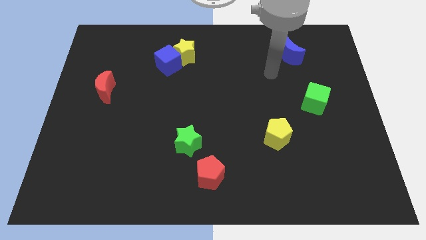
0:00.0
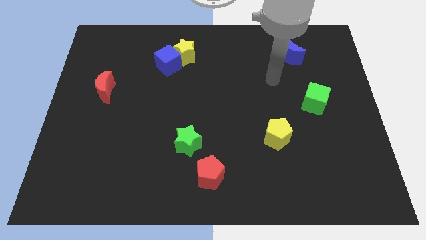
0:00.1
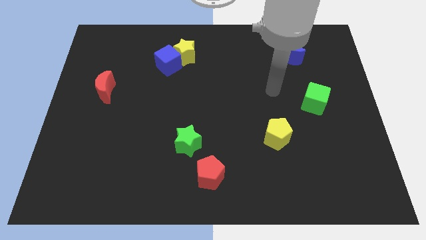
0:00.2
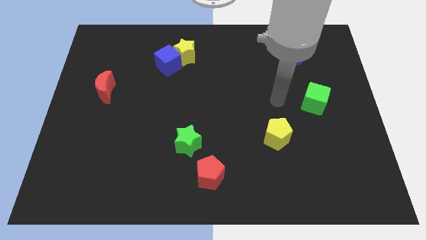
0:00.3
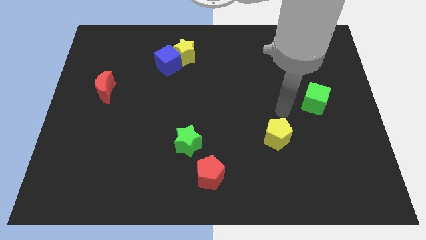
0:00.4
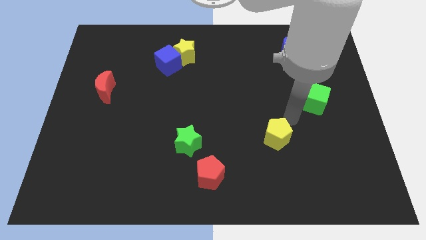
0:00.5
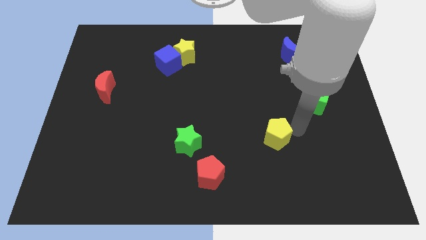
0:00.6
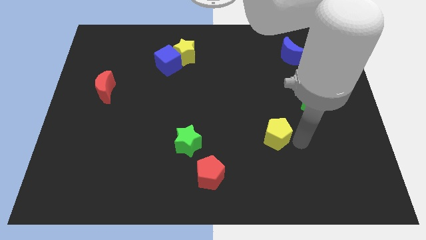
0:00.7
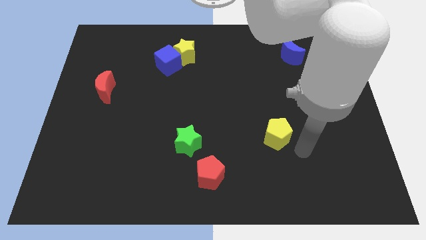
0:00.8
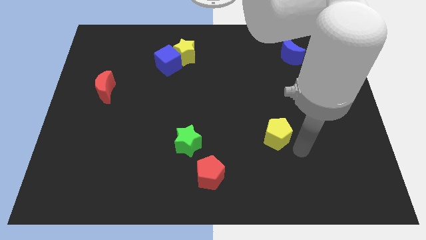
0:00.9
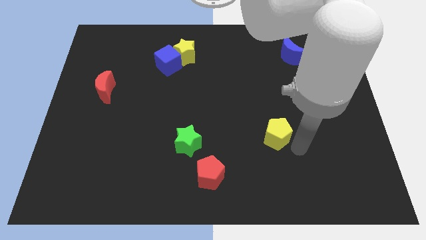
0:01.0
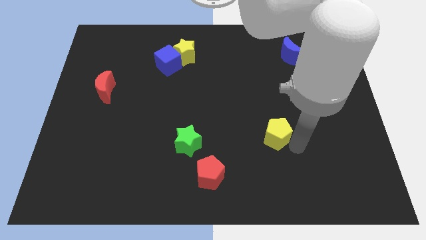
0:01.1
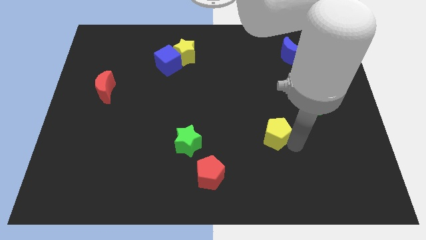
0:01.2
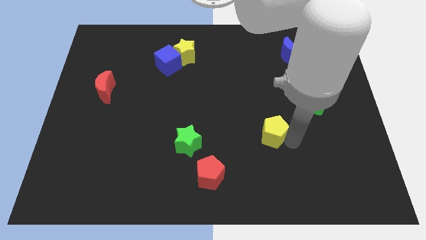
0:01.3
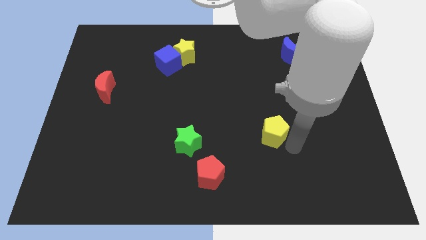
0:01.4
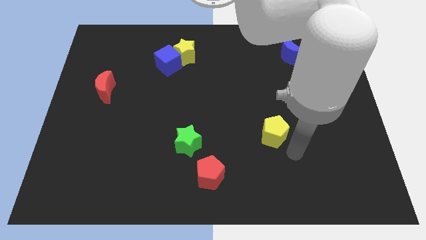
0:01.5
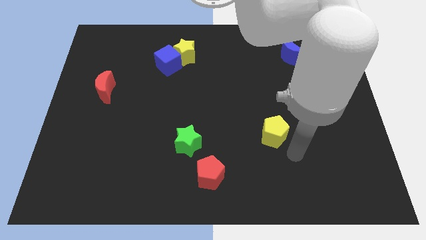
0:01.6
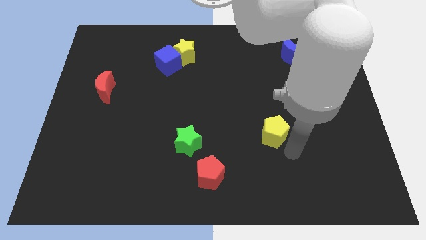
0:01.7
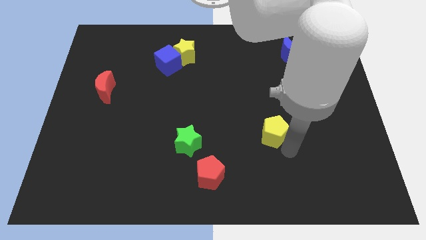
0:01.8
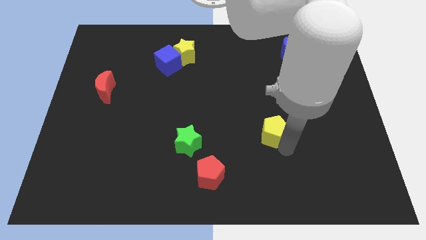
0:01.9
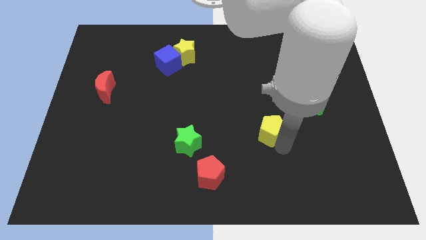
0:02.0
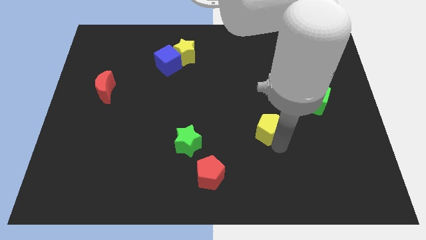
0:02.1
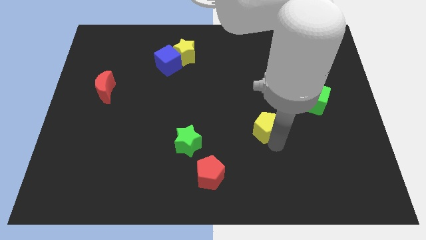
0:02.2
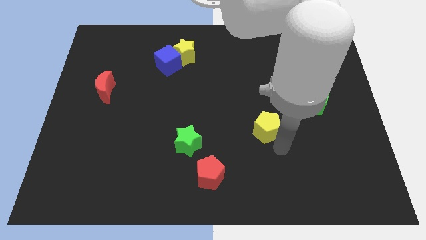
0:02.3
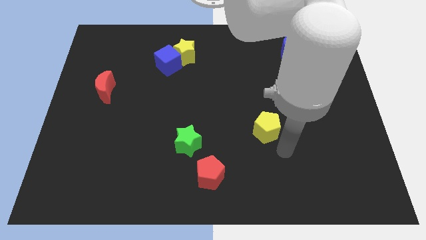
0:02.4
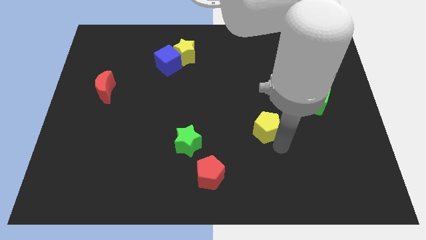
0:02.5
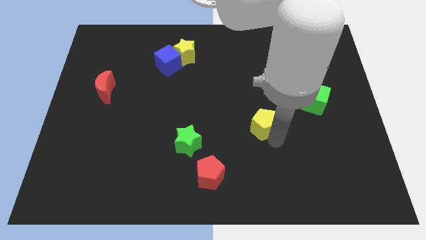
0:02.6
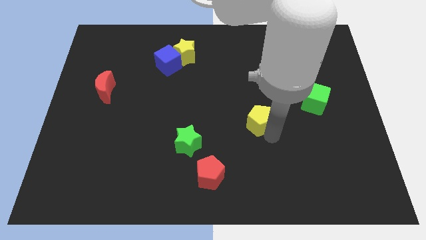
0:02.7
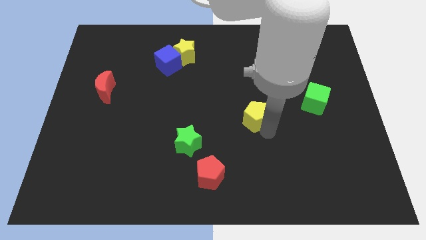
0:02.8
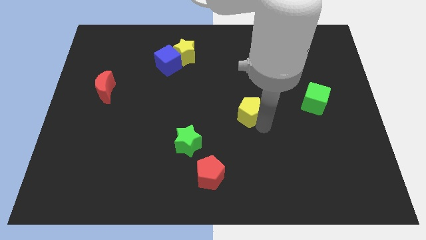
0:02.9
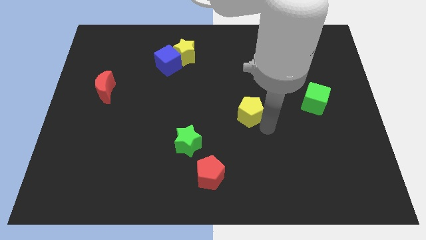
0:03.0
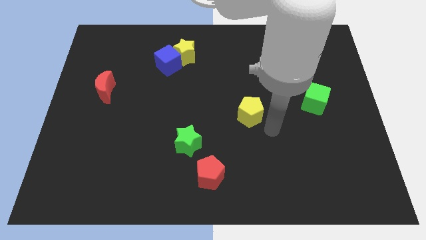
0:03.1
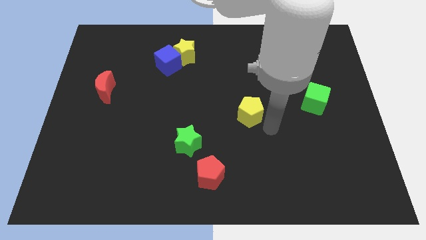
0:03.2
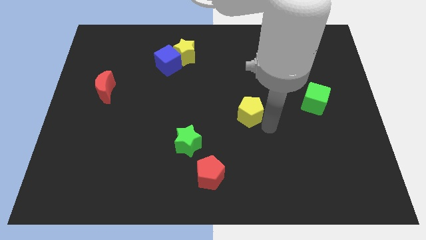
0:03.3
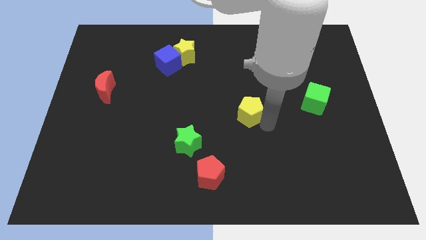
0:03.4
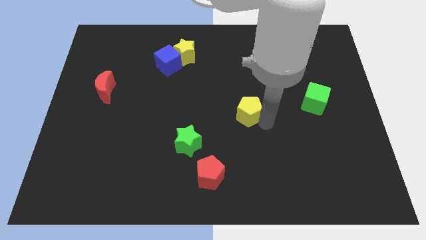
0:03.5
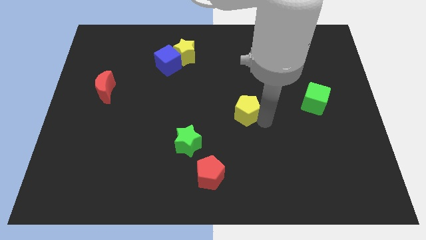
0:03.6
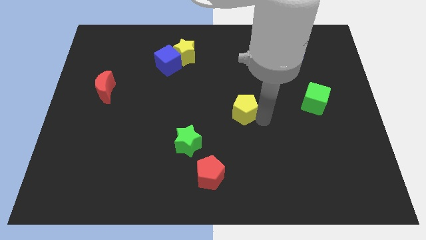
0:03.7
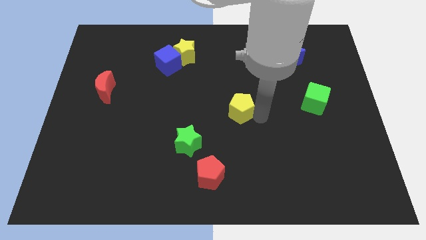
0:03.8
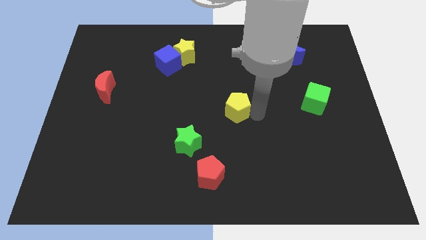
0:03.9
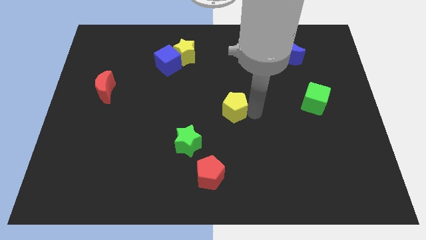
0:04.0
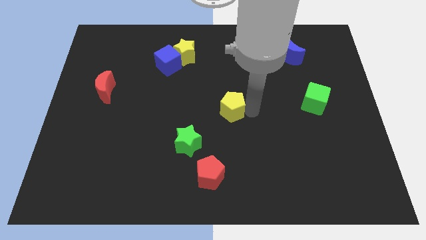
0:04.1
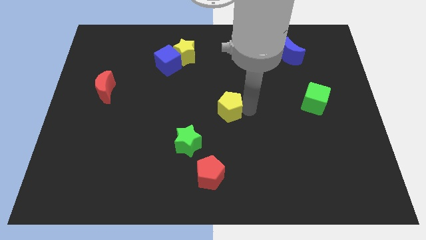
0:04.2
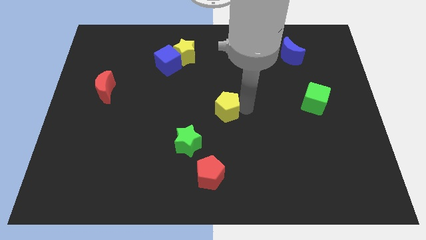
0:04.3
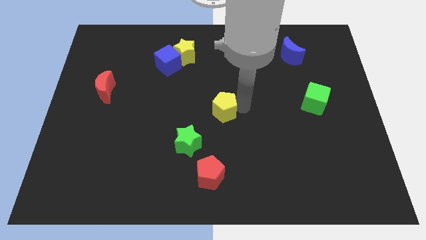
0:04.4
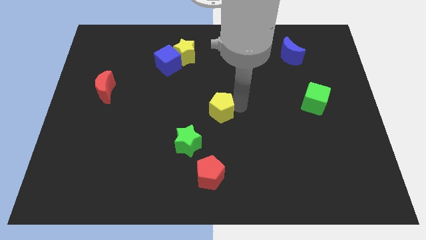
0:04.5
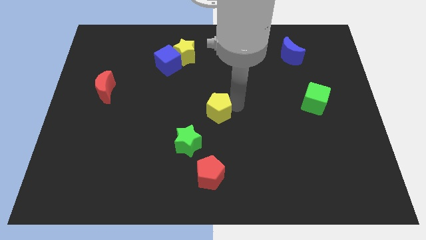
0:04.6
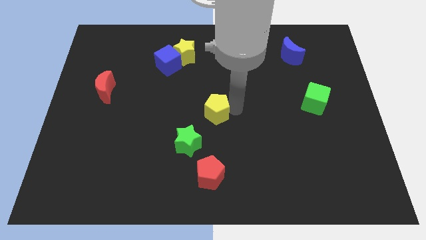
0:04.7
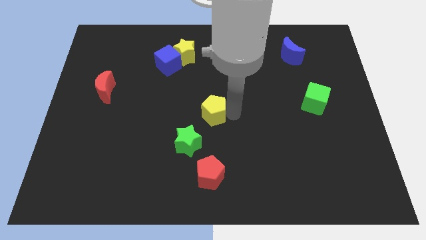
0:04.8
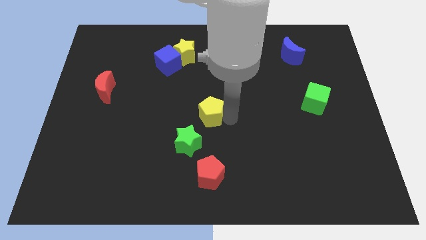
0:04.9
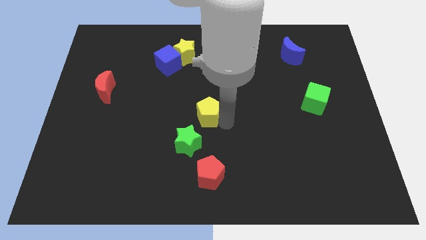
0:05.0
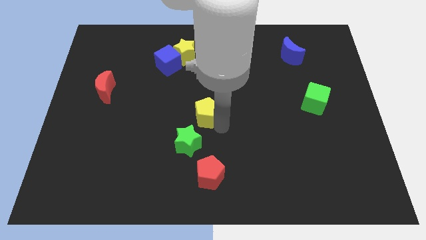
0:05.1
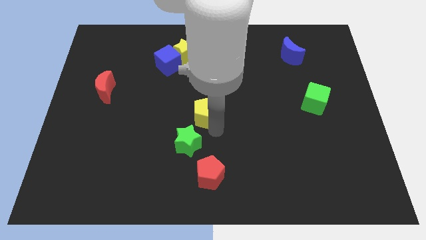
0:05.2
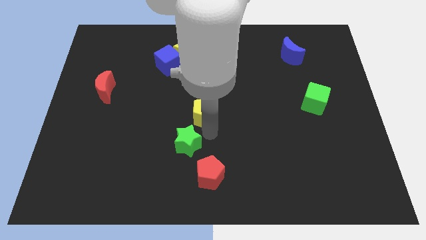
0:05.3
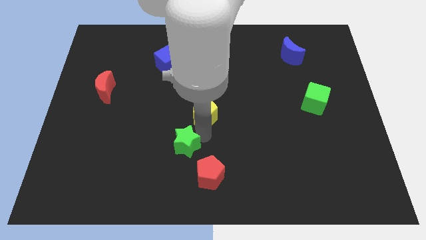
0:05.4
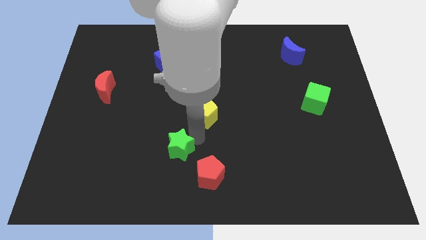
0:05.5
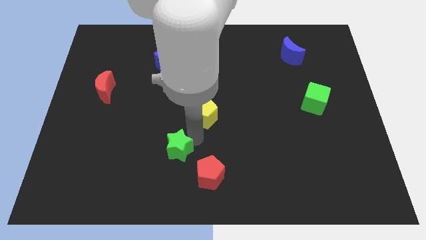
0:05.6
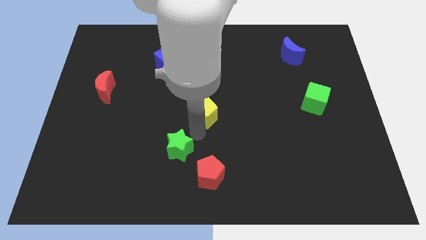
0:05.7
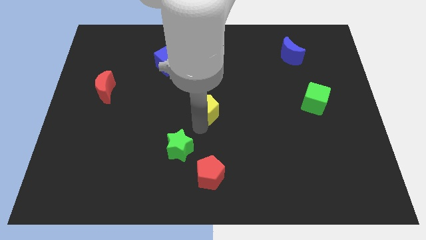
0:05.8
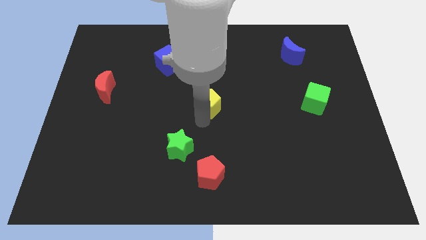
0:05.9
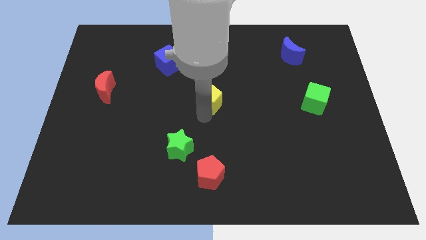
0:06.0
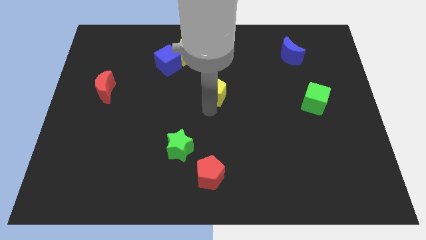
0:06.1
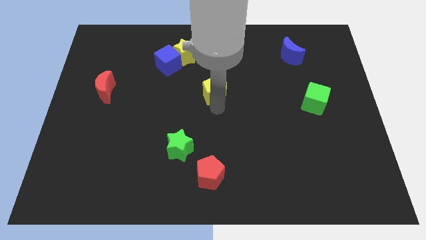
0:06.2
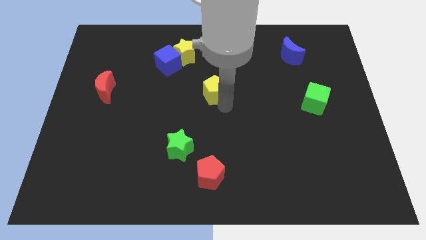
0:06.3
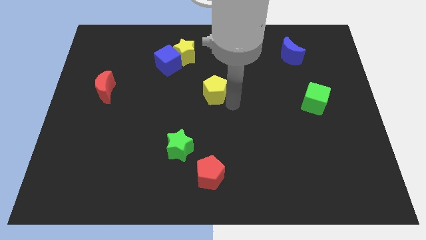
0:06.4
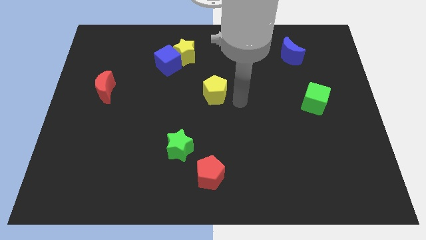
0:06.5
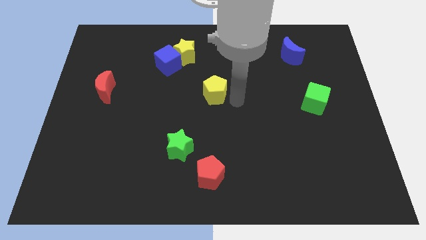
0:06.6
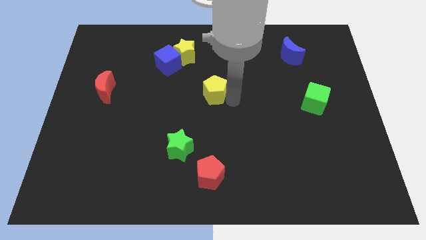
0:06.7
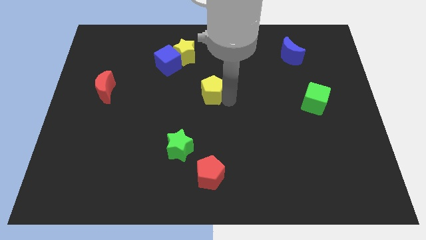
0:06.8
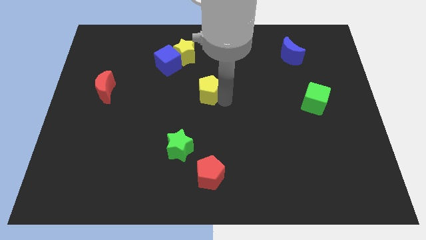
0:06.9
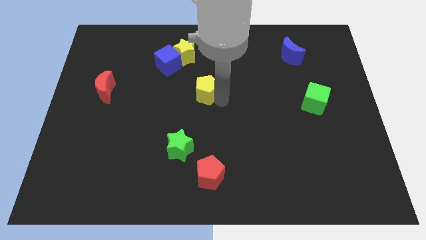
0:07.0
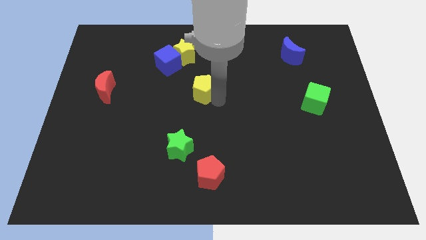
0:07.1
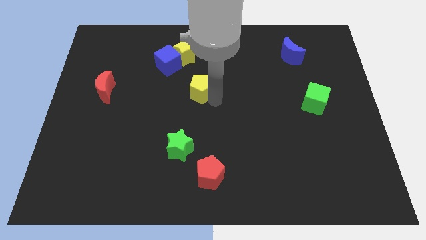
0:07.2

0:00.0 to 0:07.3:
push the yellow pentagon to the bottom side of the yellow star
